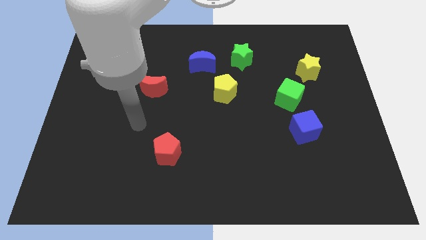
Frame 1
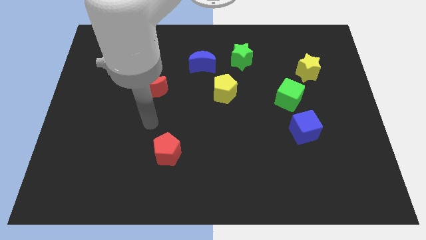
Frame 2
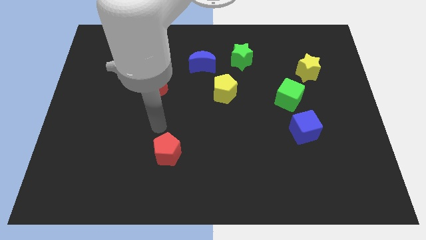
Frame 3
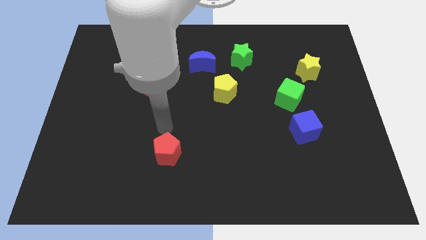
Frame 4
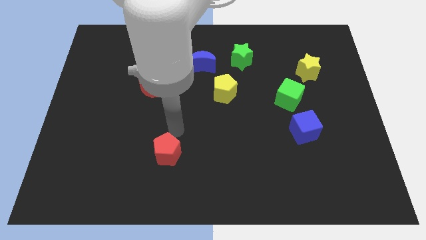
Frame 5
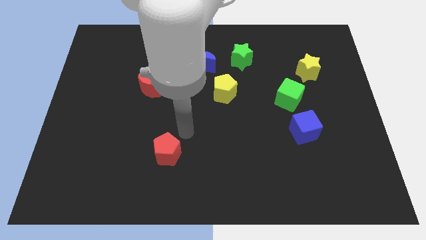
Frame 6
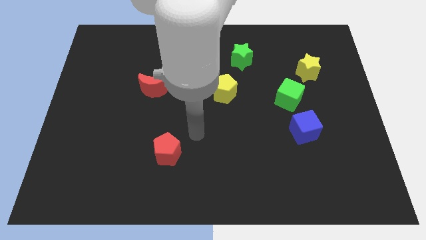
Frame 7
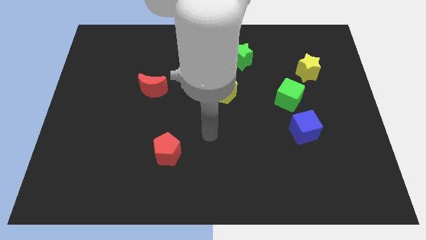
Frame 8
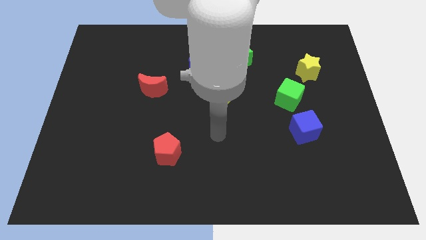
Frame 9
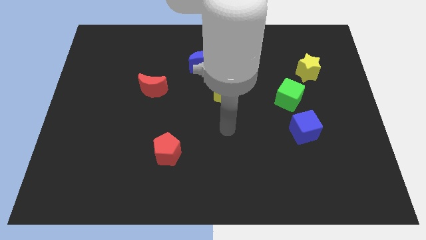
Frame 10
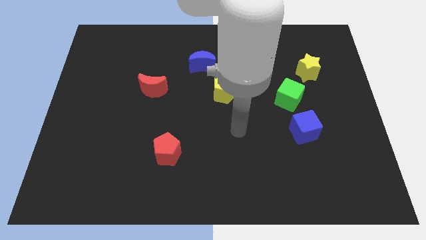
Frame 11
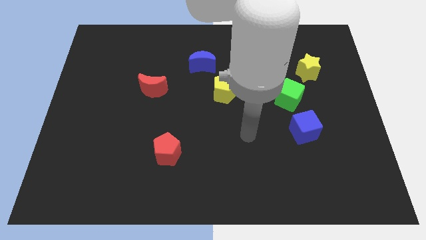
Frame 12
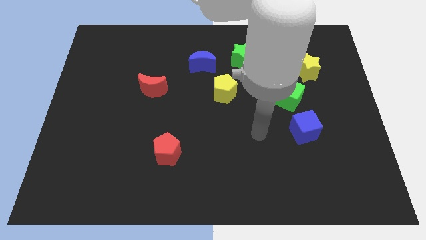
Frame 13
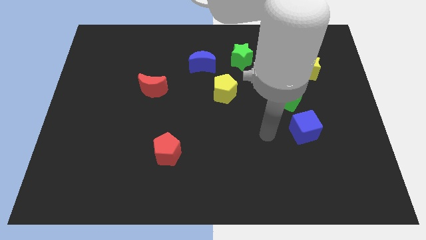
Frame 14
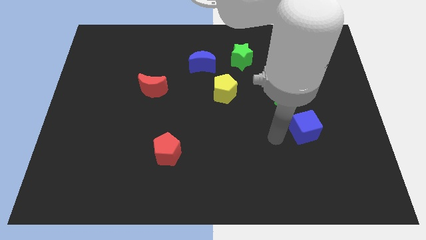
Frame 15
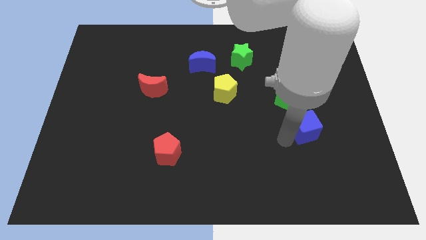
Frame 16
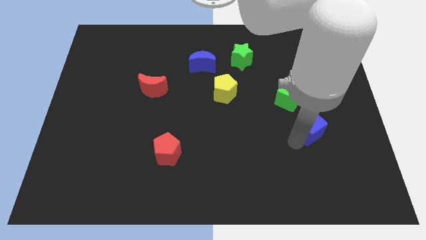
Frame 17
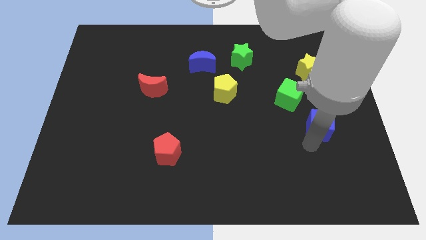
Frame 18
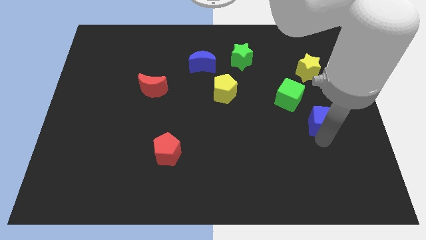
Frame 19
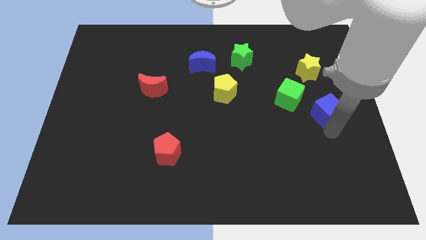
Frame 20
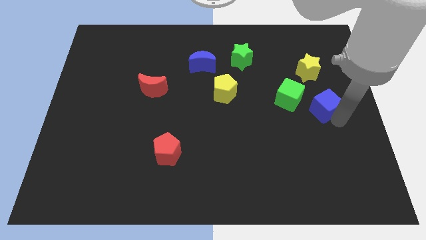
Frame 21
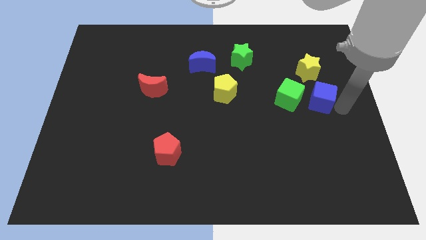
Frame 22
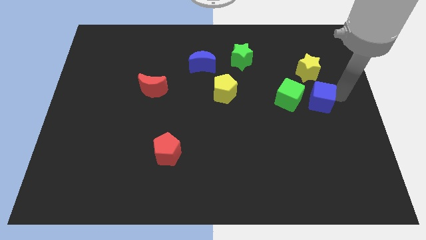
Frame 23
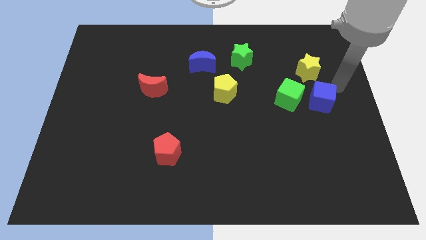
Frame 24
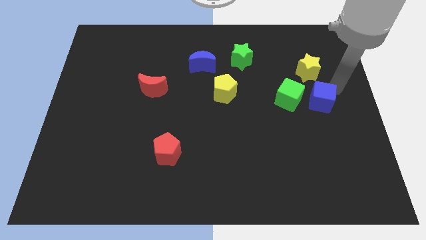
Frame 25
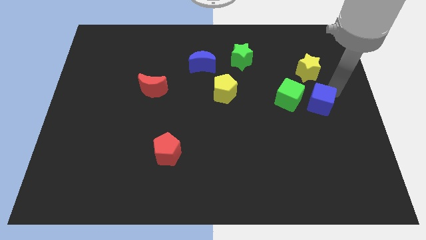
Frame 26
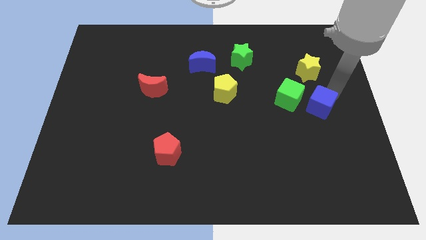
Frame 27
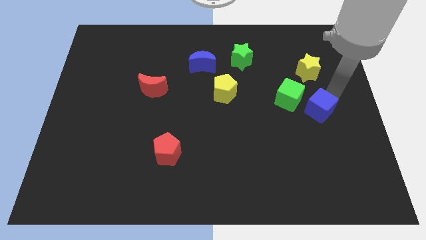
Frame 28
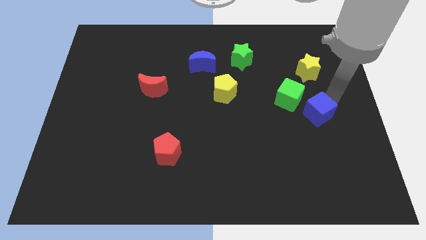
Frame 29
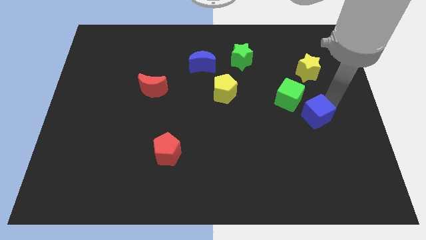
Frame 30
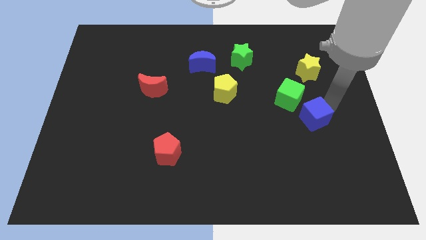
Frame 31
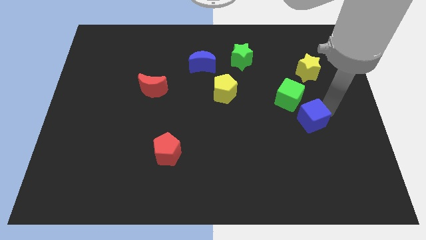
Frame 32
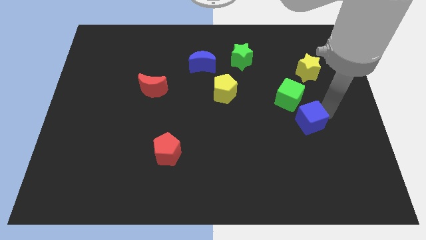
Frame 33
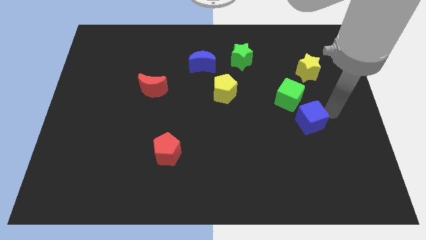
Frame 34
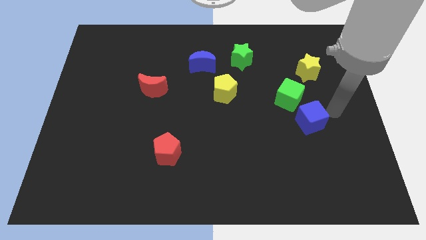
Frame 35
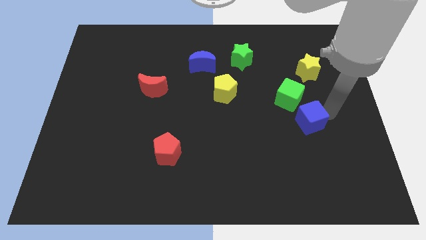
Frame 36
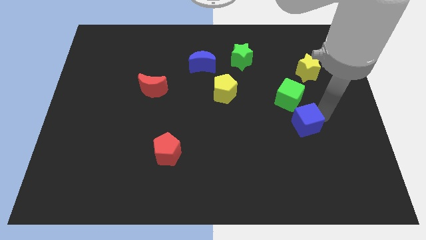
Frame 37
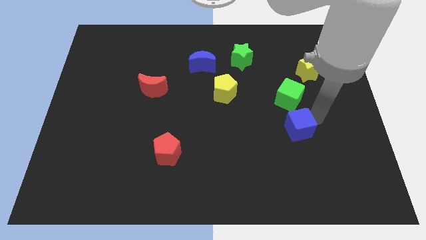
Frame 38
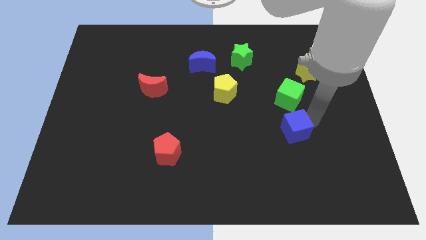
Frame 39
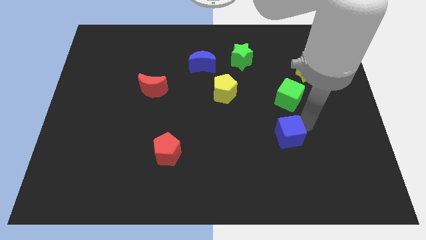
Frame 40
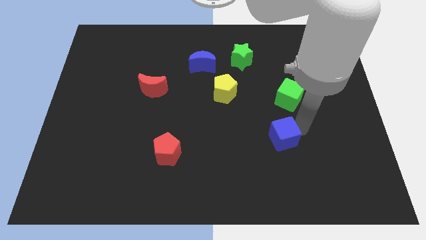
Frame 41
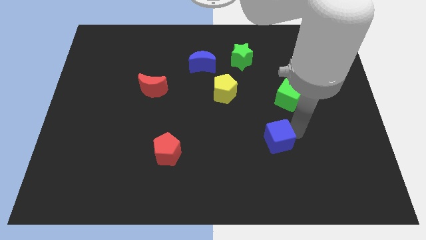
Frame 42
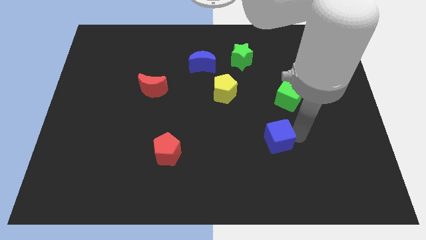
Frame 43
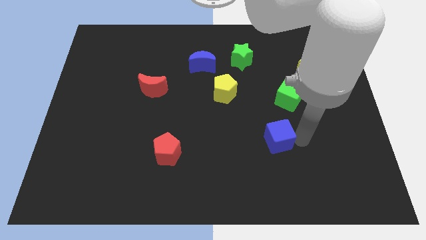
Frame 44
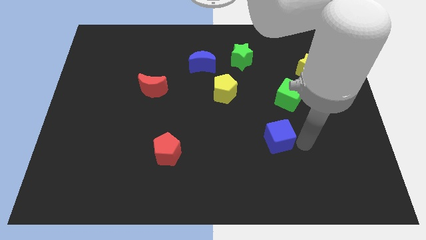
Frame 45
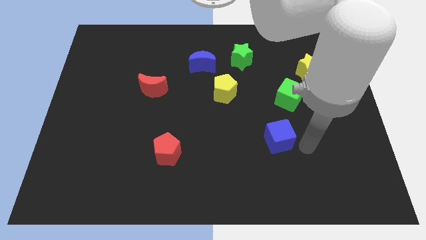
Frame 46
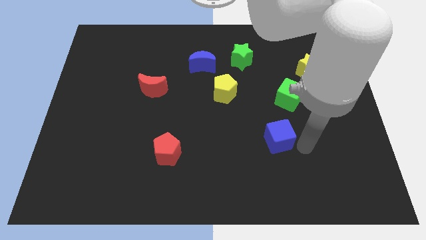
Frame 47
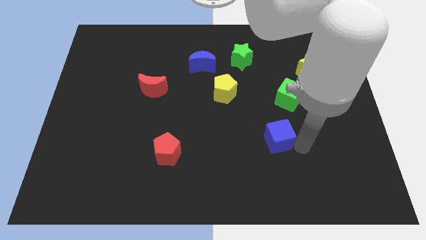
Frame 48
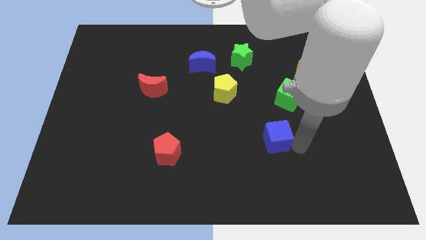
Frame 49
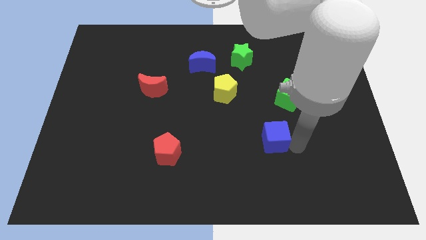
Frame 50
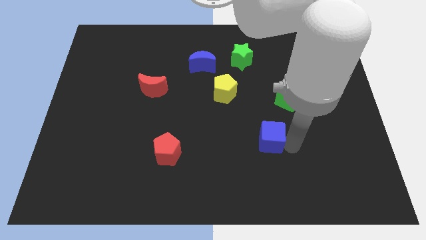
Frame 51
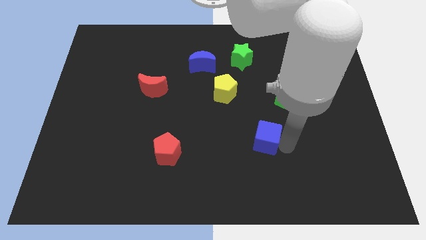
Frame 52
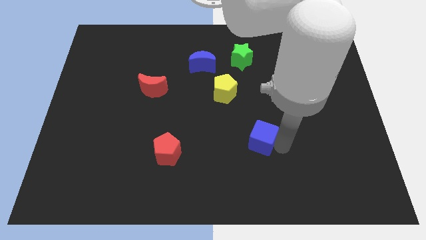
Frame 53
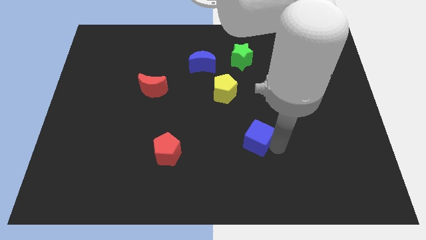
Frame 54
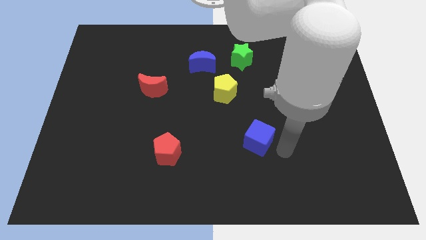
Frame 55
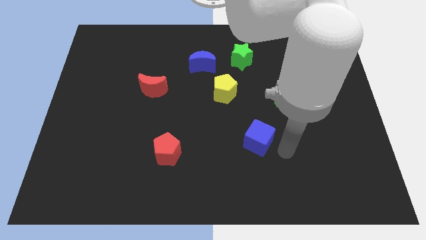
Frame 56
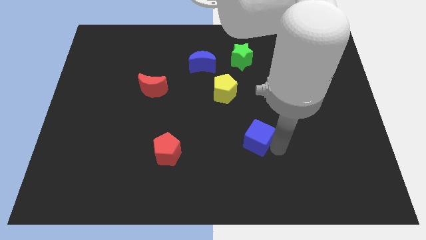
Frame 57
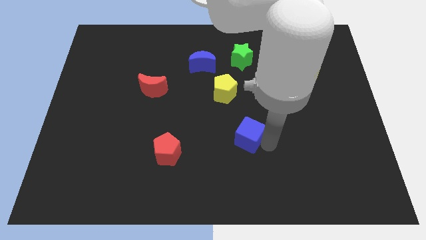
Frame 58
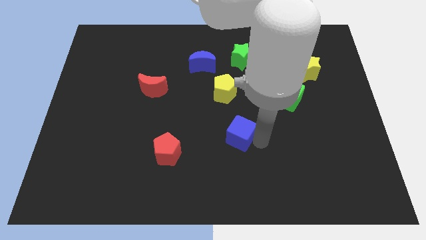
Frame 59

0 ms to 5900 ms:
slide the blue cube to the bottom of the yellow pentagon

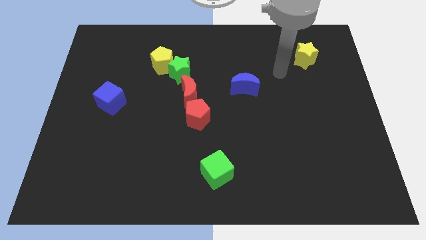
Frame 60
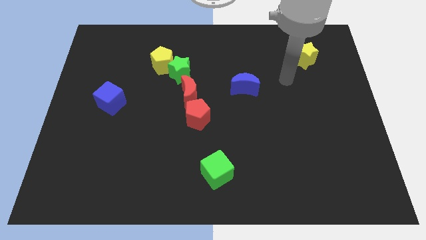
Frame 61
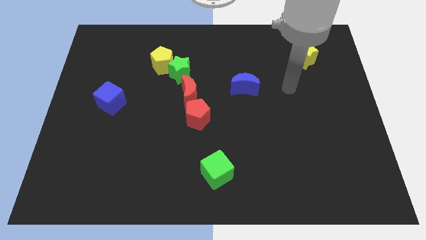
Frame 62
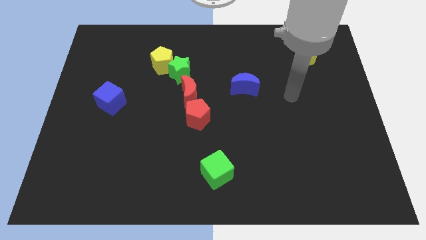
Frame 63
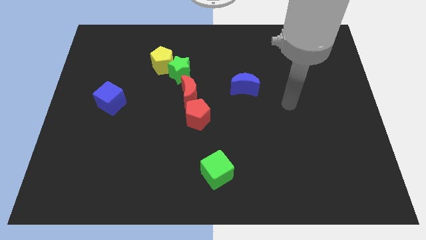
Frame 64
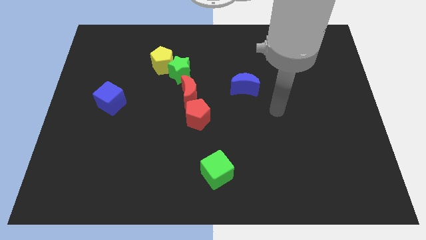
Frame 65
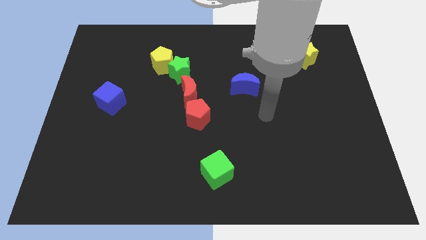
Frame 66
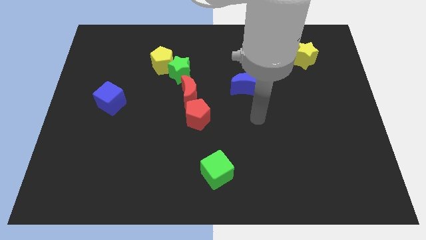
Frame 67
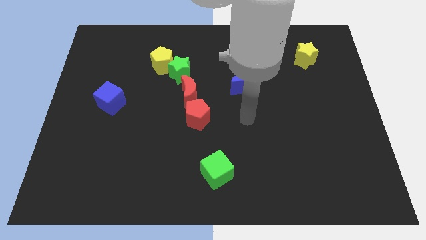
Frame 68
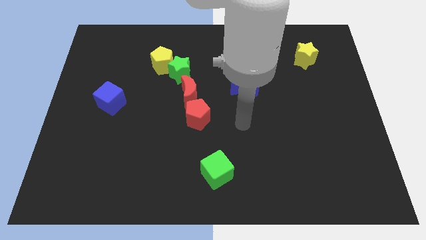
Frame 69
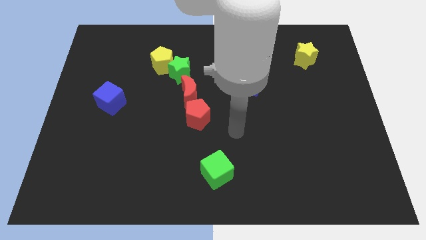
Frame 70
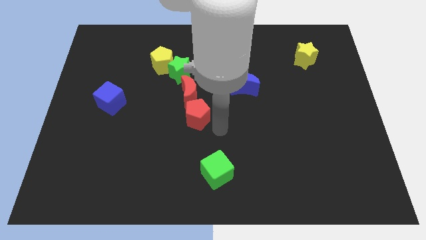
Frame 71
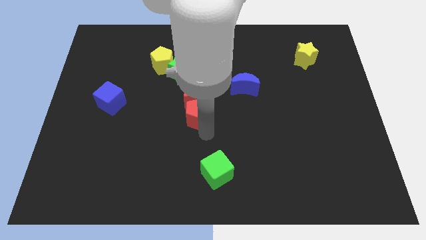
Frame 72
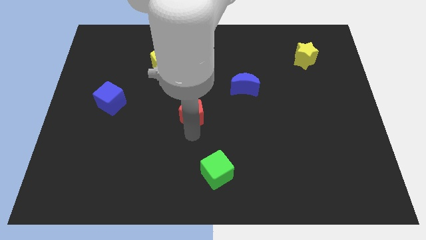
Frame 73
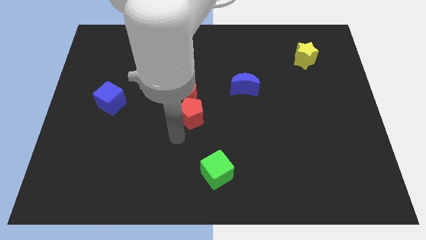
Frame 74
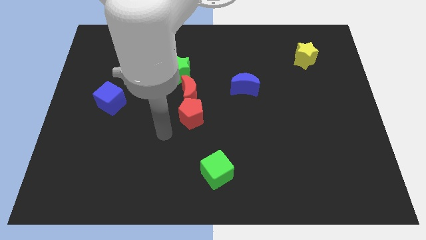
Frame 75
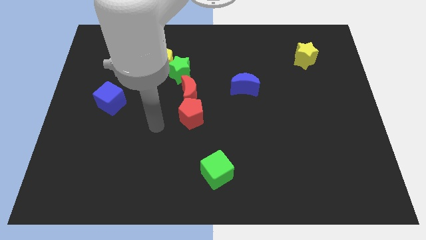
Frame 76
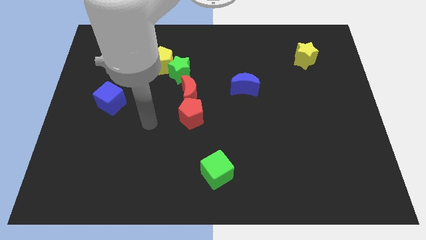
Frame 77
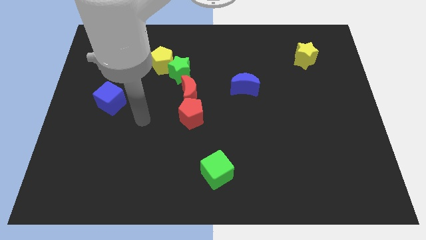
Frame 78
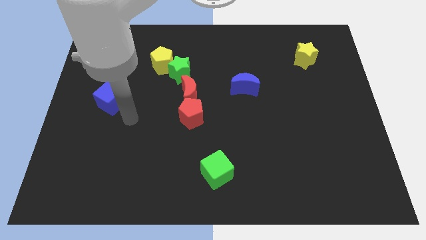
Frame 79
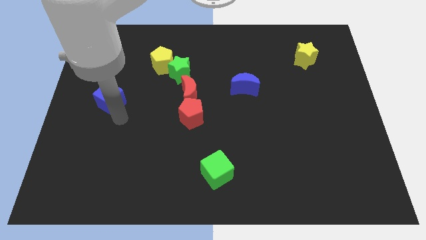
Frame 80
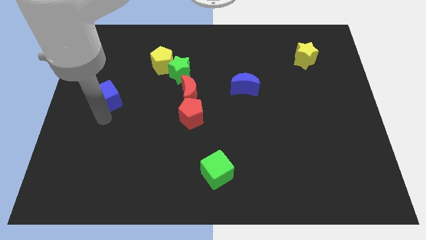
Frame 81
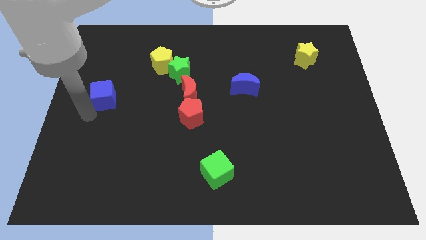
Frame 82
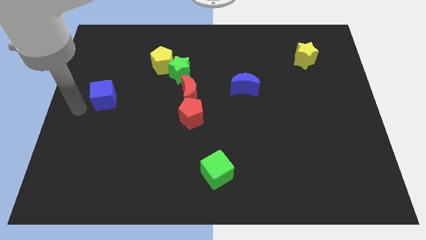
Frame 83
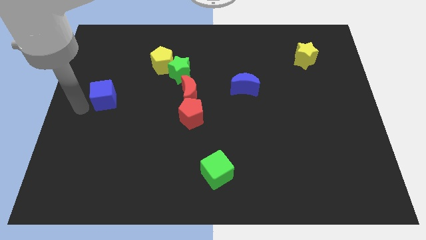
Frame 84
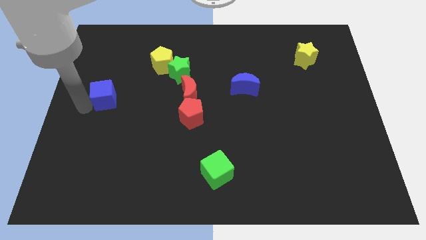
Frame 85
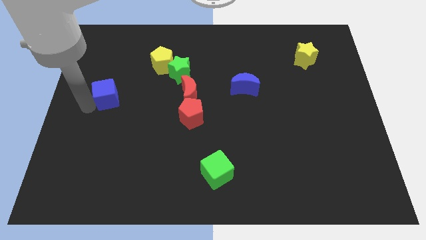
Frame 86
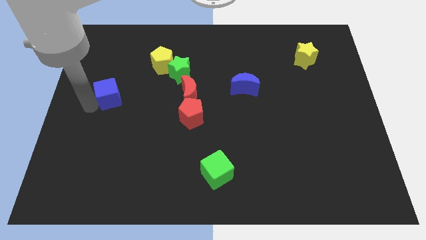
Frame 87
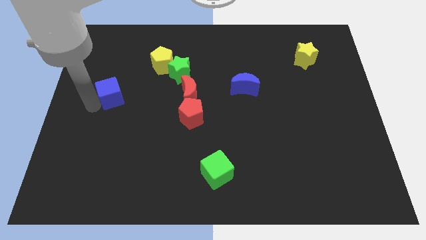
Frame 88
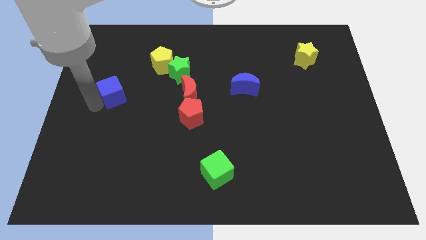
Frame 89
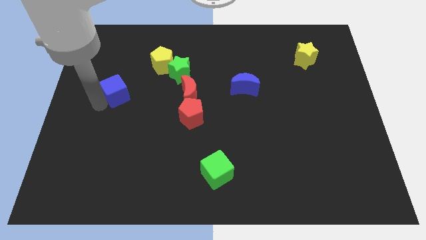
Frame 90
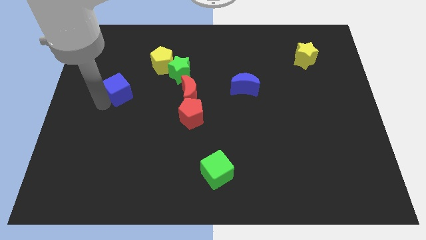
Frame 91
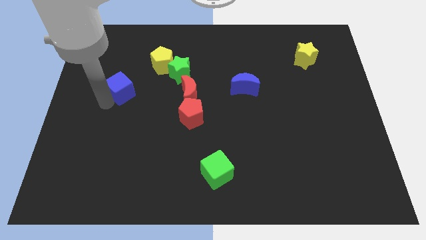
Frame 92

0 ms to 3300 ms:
move the blue cube to the bottom left of the yellow pentagon
